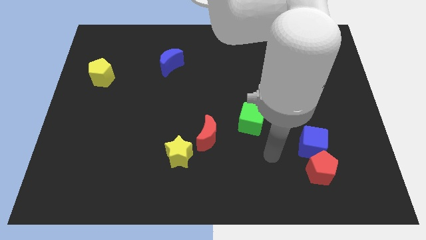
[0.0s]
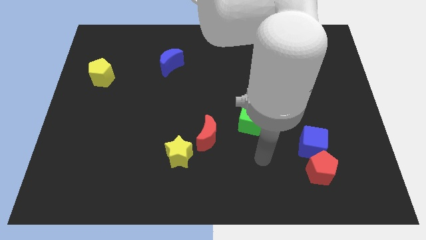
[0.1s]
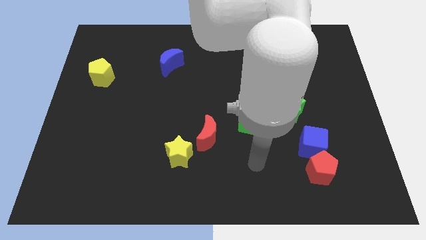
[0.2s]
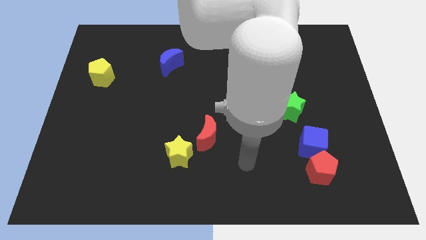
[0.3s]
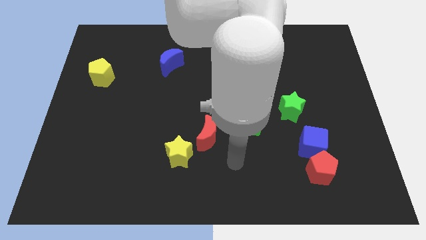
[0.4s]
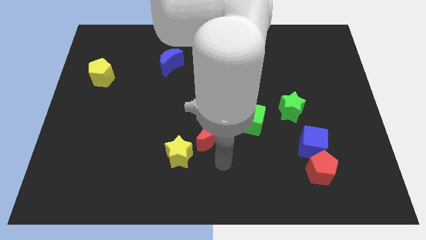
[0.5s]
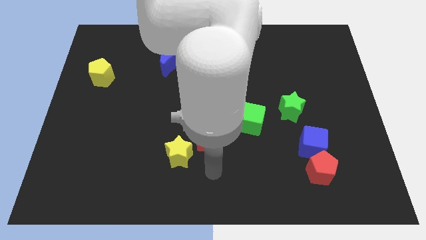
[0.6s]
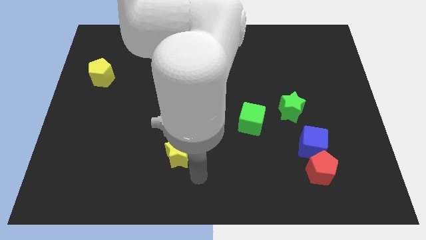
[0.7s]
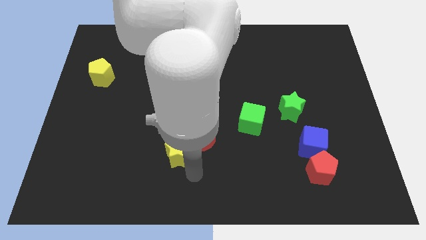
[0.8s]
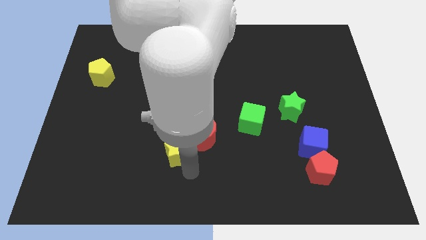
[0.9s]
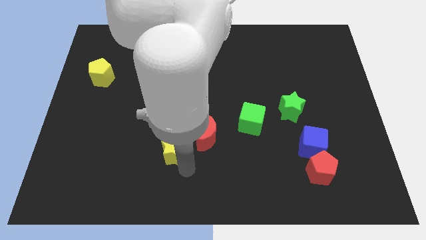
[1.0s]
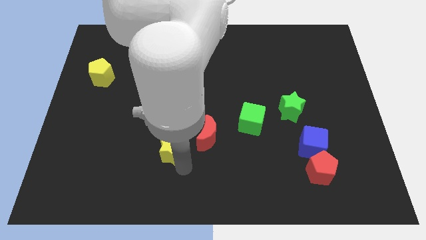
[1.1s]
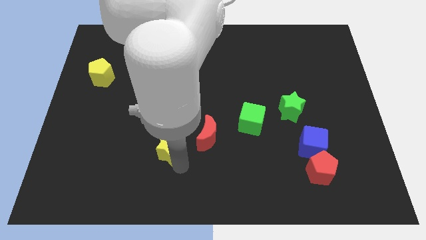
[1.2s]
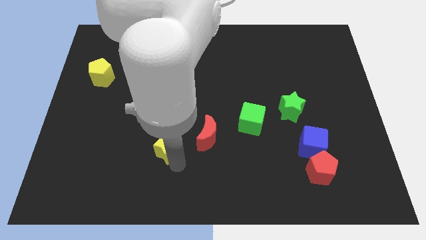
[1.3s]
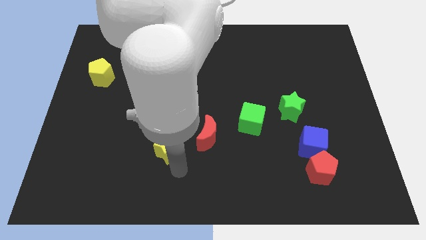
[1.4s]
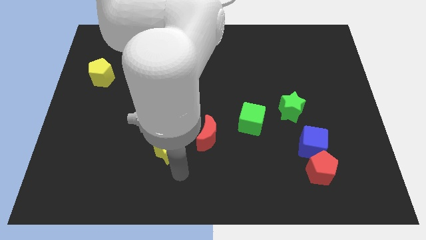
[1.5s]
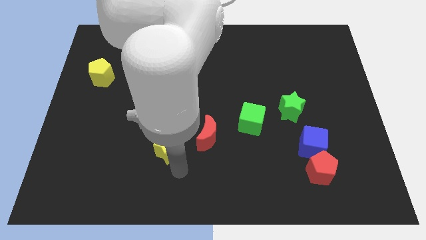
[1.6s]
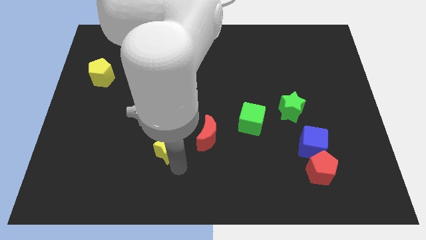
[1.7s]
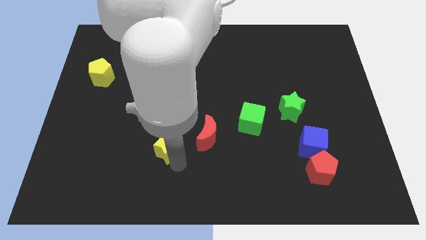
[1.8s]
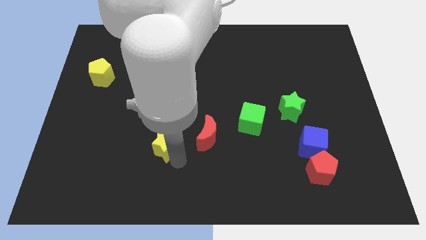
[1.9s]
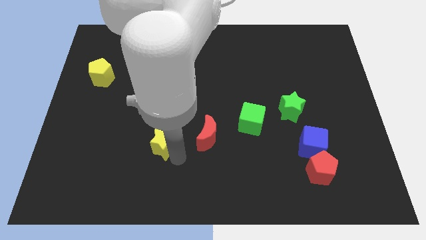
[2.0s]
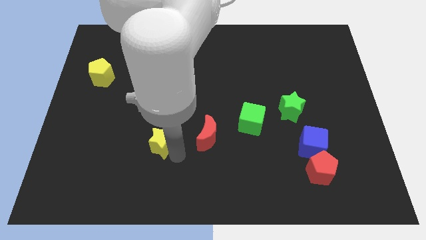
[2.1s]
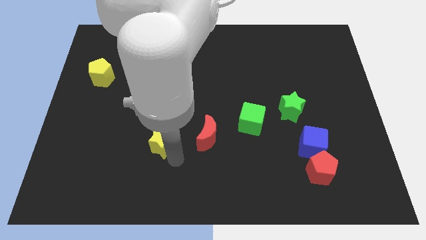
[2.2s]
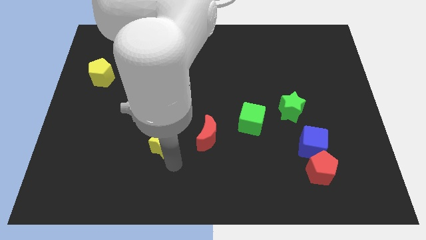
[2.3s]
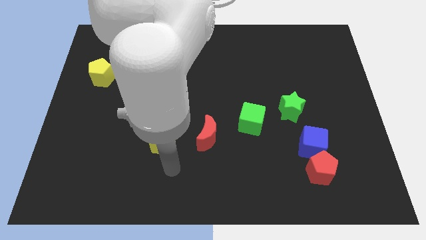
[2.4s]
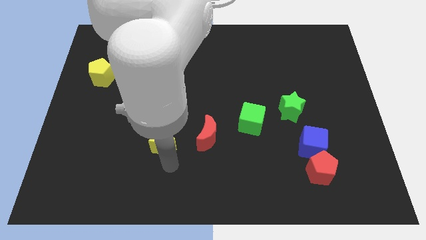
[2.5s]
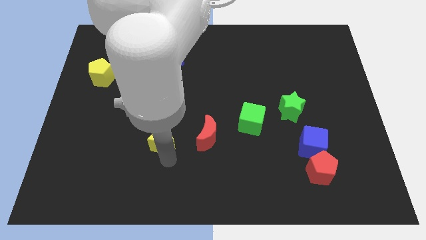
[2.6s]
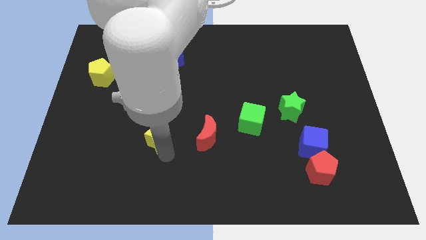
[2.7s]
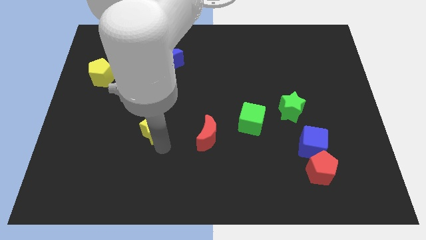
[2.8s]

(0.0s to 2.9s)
slightly move the yellow star upwards and to the left diagonally

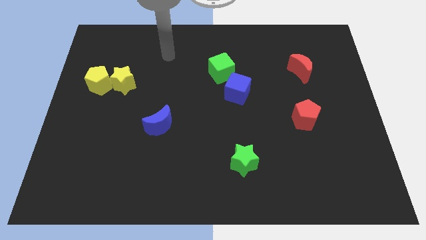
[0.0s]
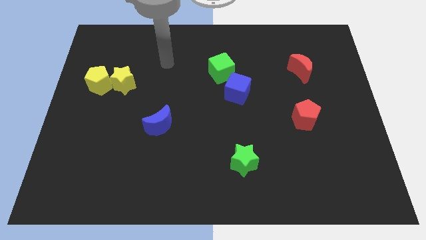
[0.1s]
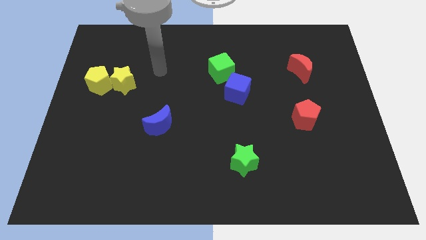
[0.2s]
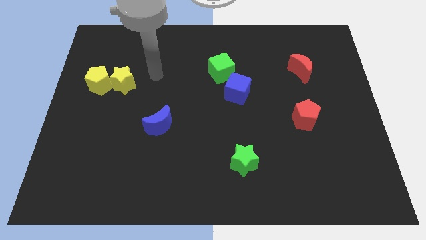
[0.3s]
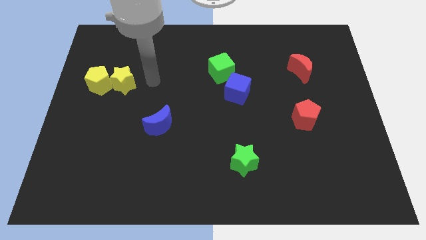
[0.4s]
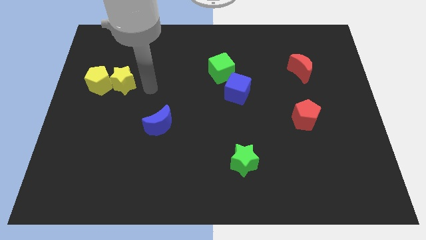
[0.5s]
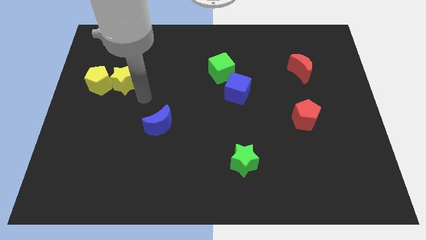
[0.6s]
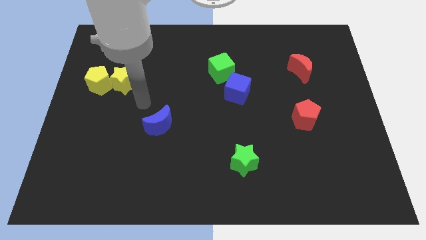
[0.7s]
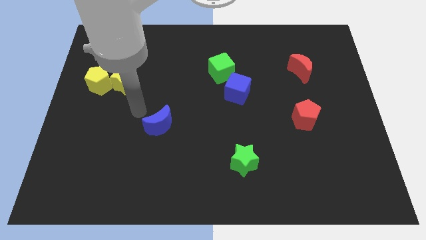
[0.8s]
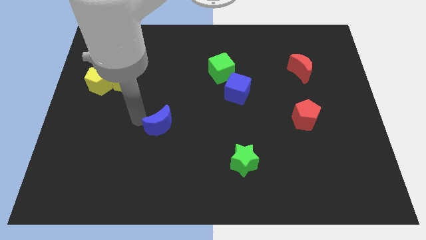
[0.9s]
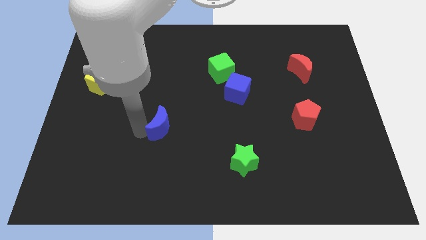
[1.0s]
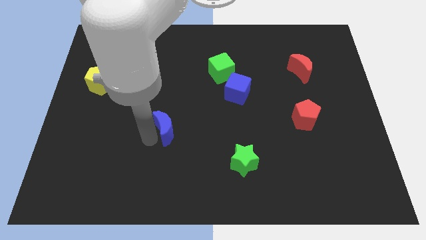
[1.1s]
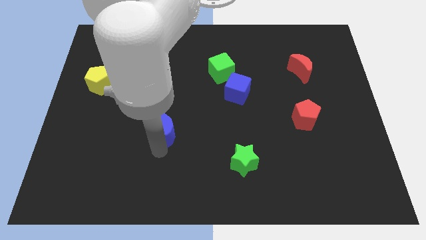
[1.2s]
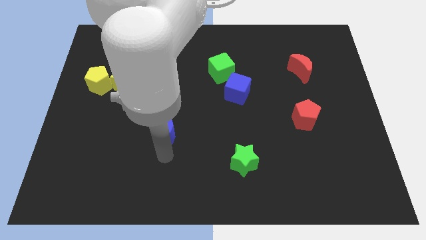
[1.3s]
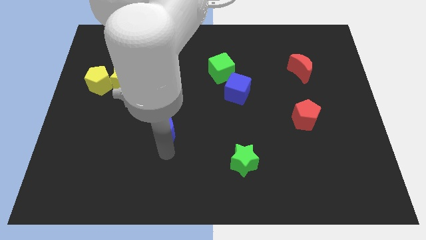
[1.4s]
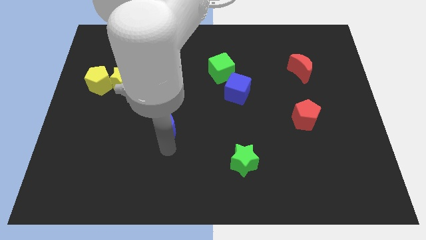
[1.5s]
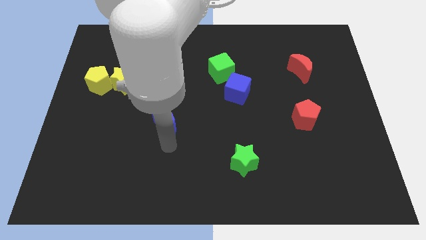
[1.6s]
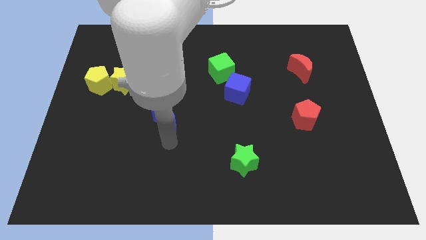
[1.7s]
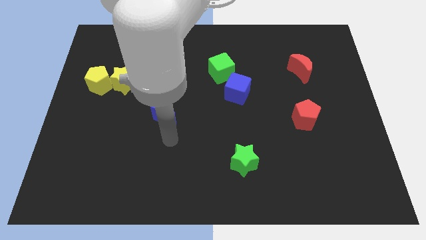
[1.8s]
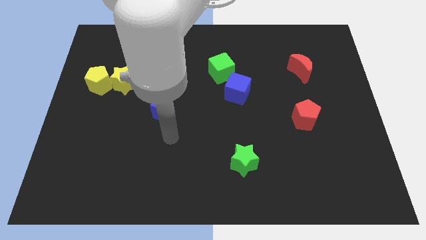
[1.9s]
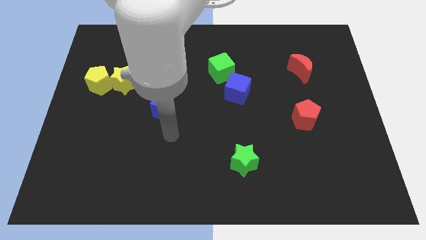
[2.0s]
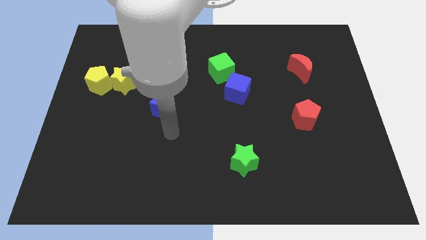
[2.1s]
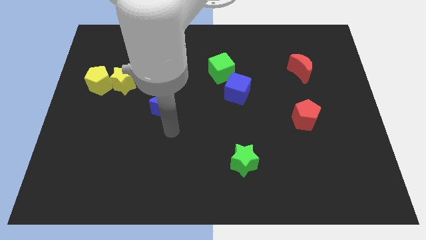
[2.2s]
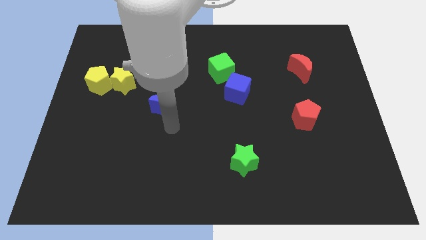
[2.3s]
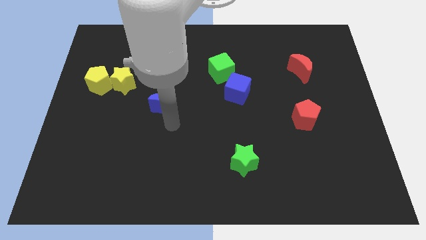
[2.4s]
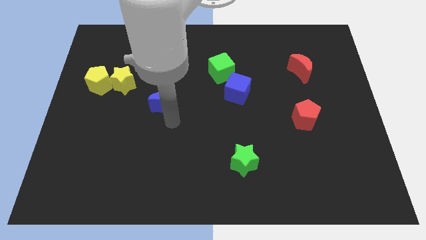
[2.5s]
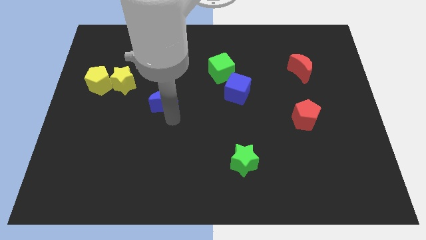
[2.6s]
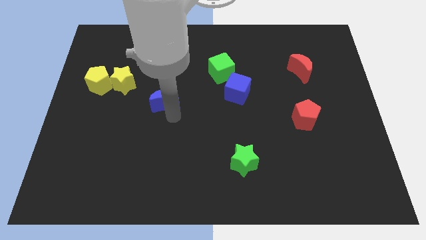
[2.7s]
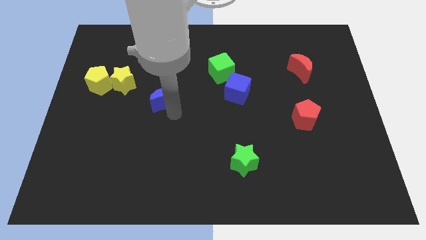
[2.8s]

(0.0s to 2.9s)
slide the blue moon upwards a little

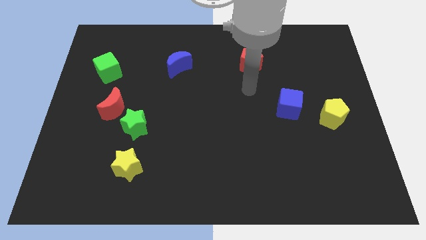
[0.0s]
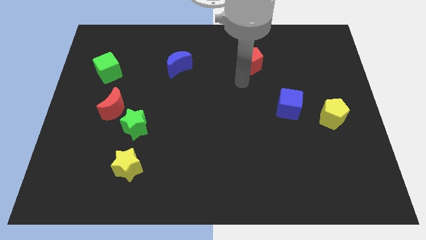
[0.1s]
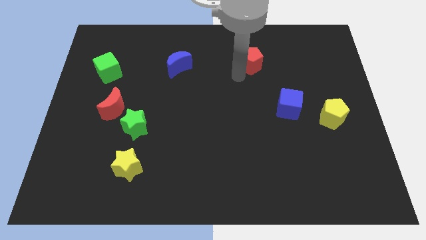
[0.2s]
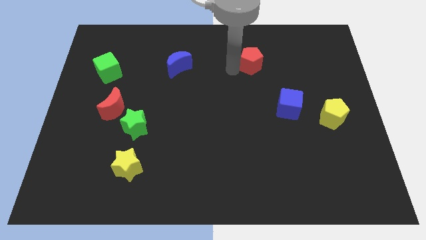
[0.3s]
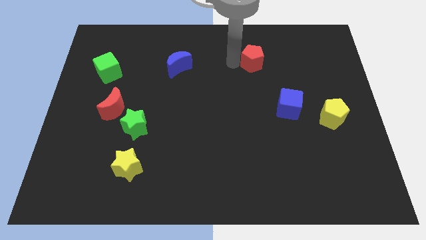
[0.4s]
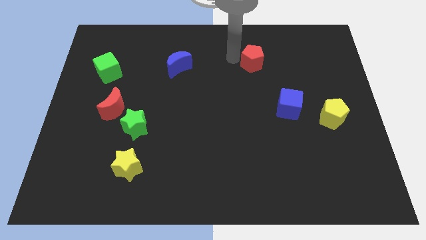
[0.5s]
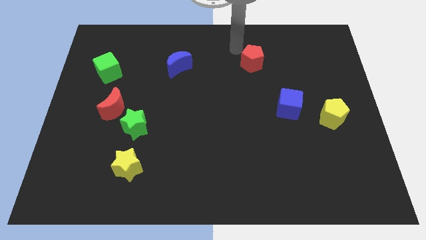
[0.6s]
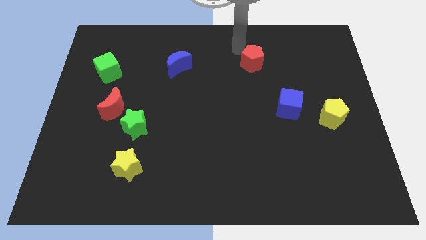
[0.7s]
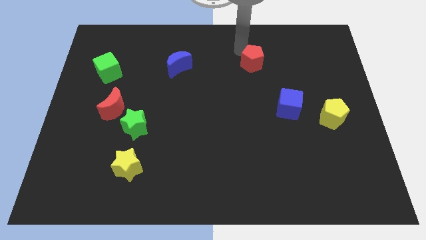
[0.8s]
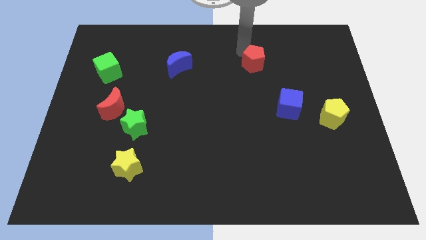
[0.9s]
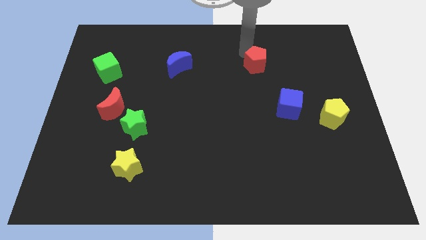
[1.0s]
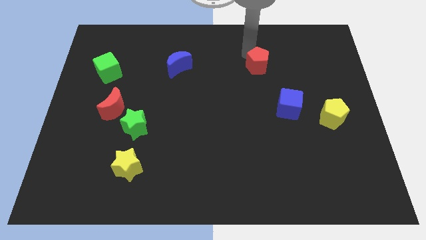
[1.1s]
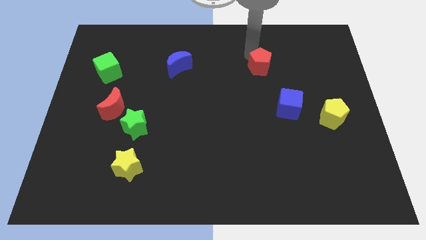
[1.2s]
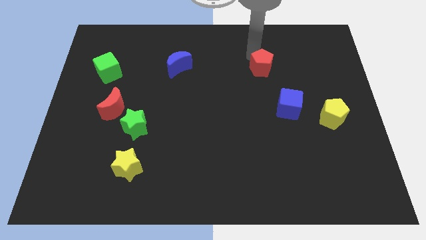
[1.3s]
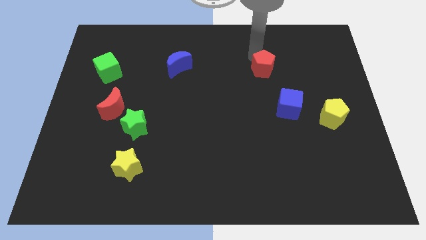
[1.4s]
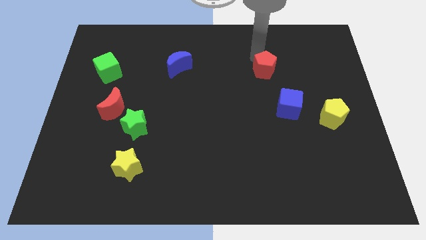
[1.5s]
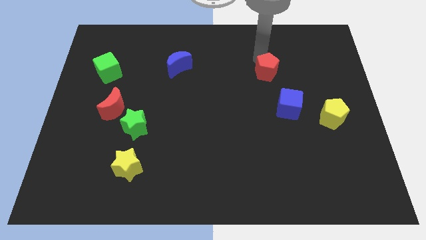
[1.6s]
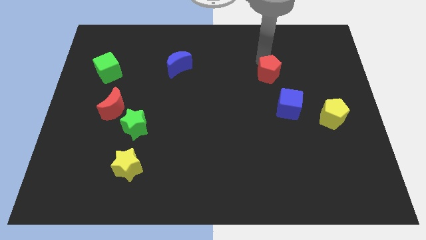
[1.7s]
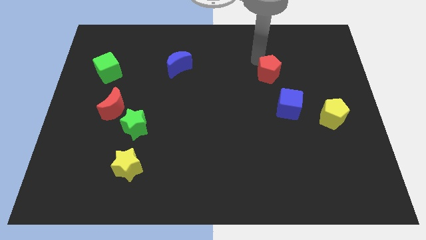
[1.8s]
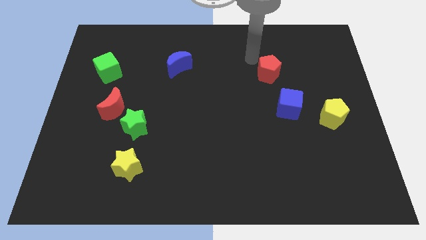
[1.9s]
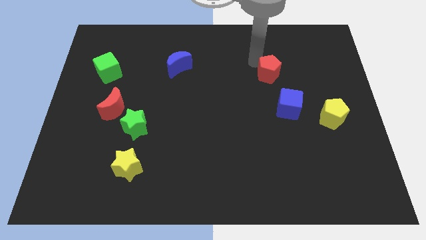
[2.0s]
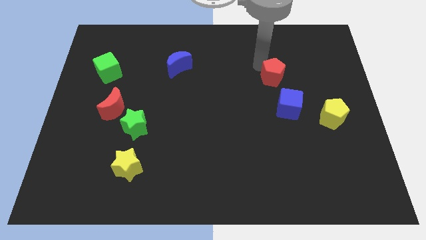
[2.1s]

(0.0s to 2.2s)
slide the red pentagon a bit down and right diagonally
